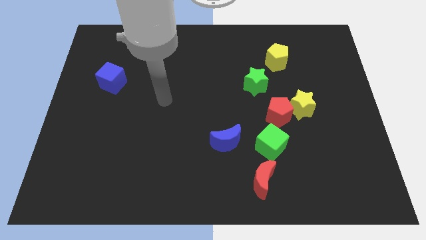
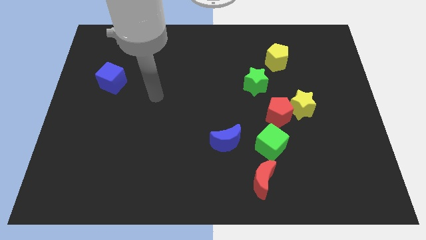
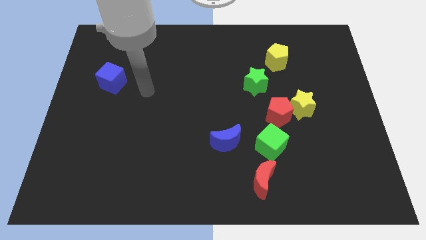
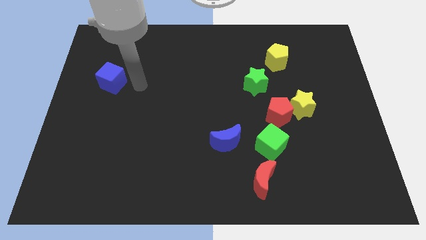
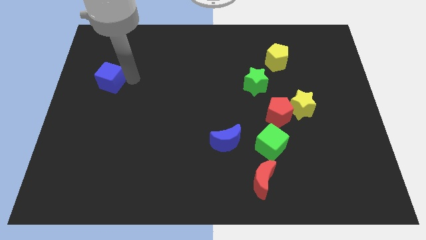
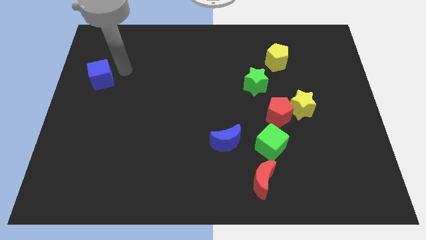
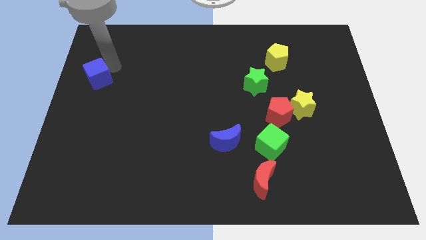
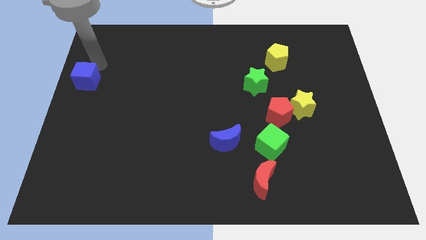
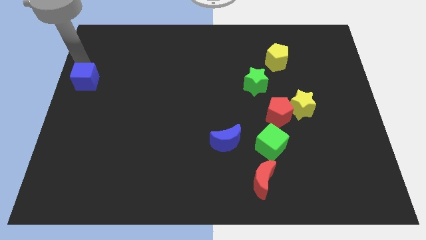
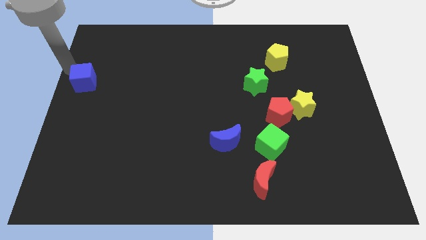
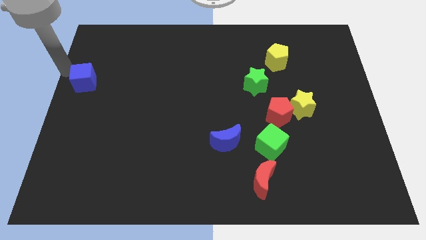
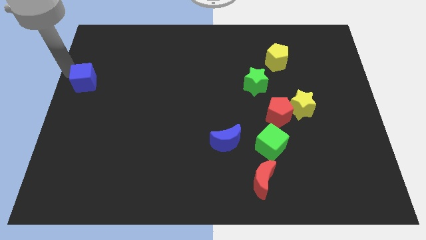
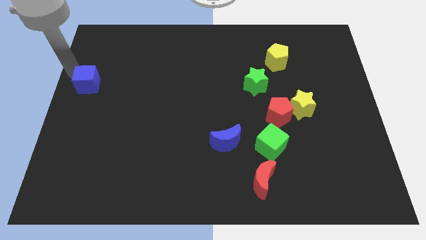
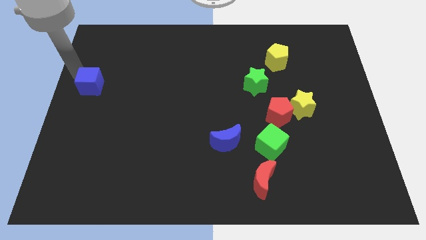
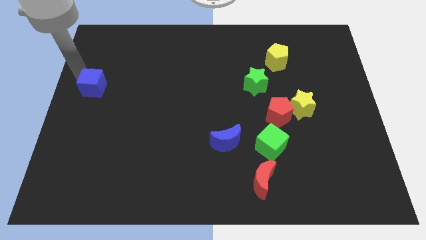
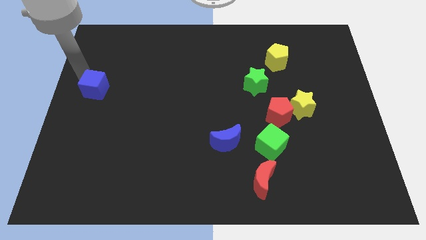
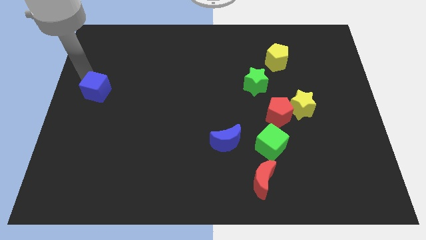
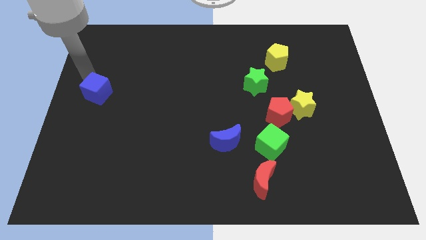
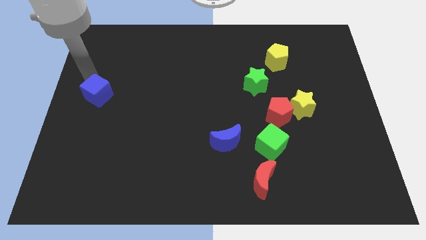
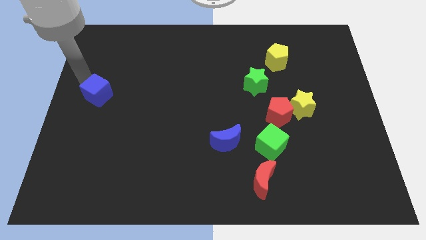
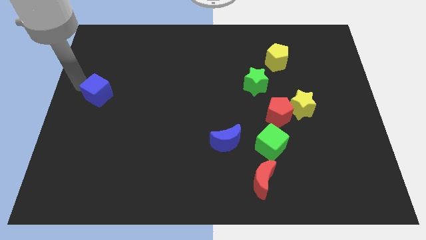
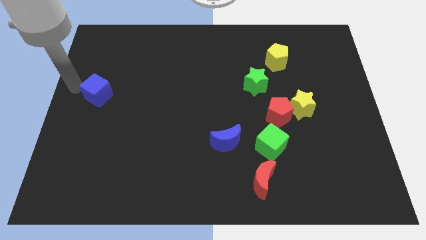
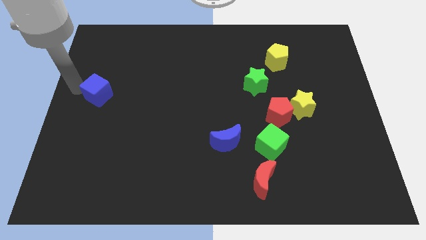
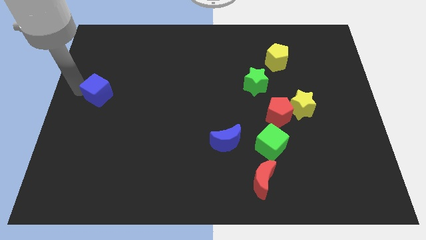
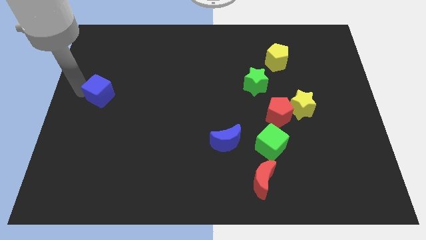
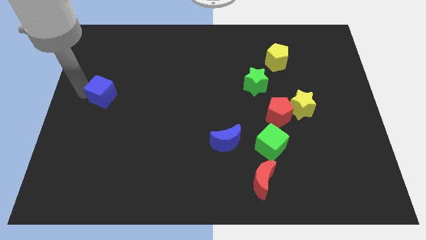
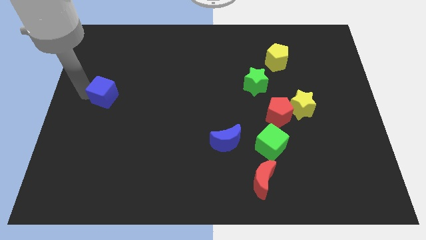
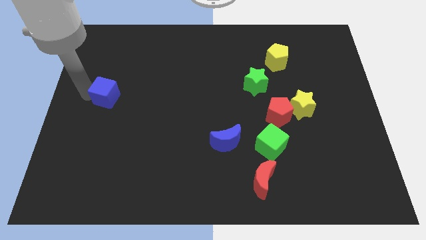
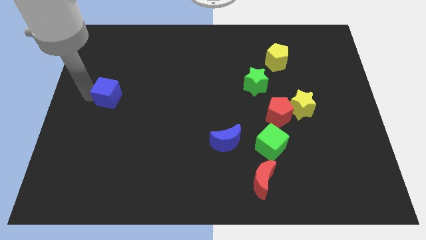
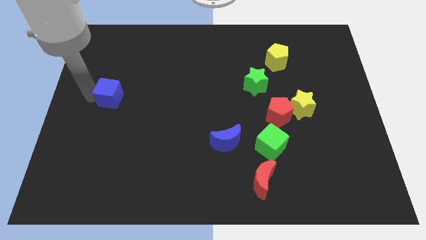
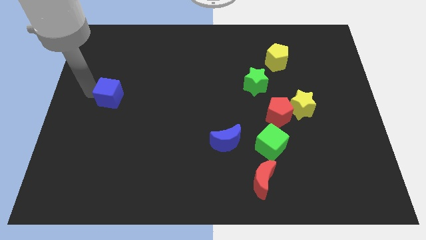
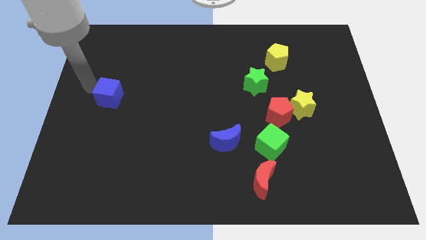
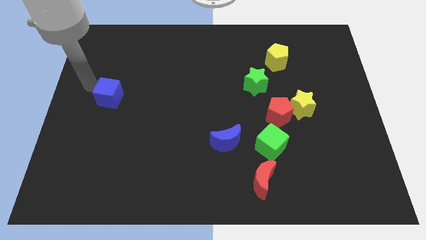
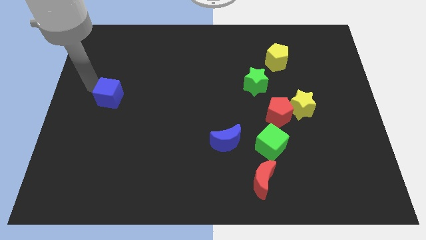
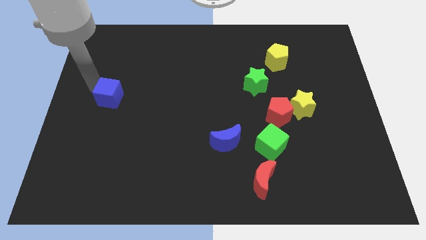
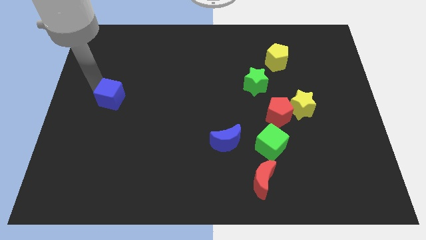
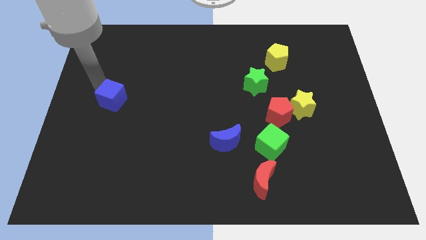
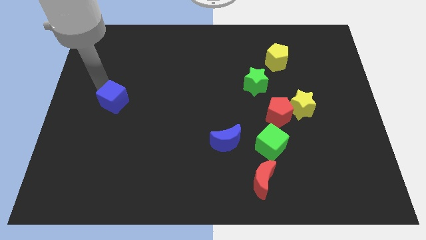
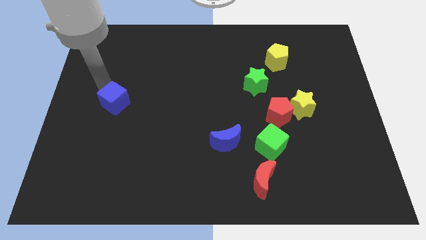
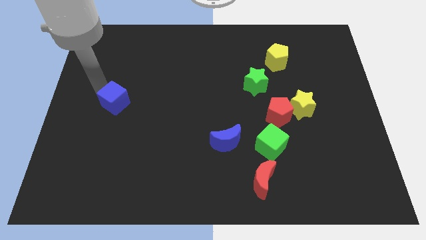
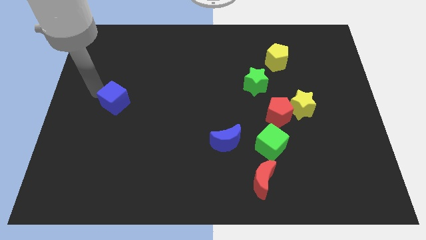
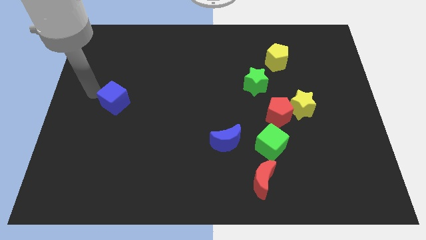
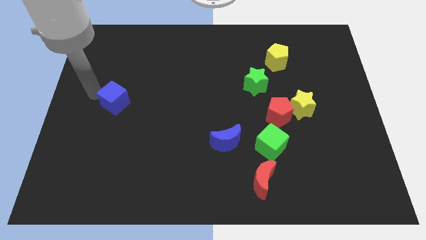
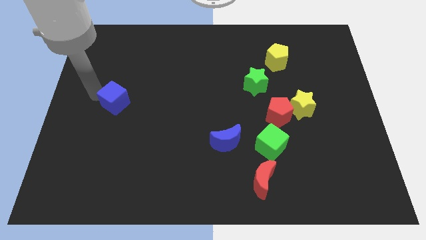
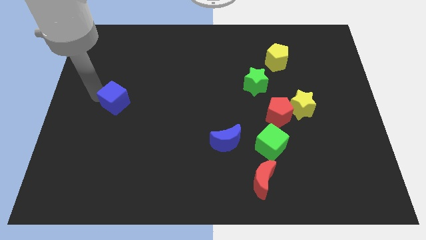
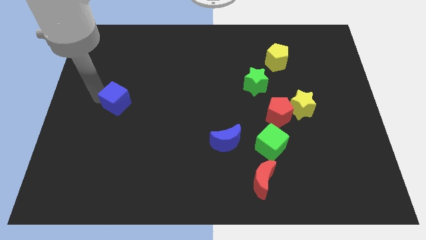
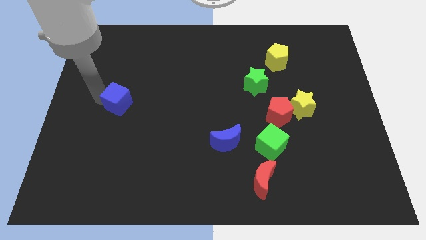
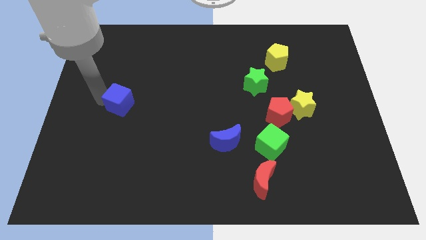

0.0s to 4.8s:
slightly push the blue cube diagonally downwards and right

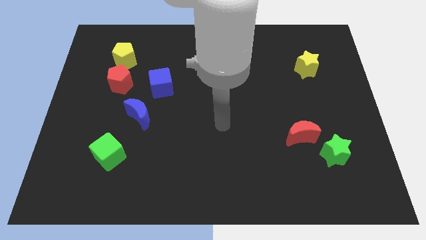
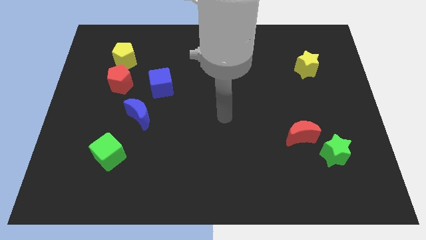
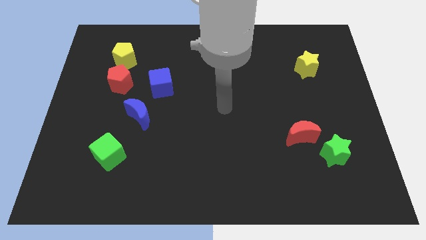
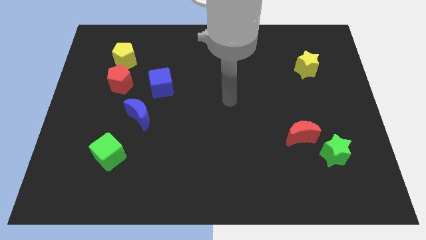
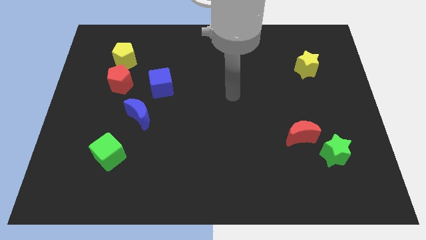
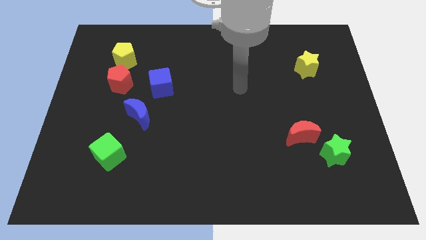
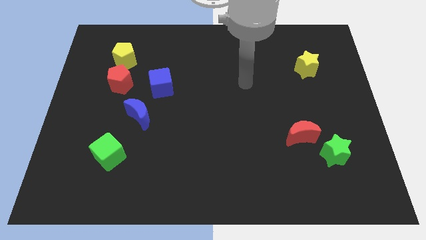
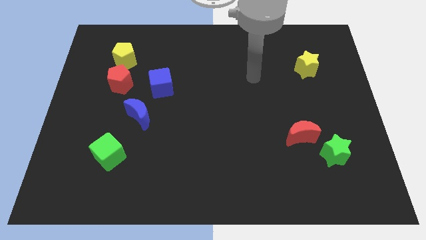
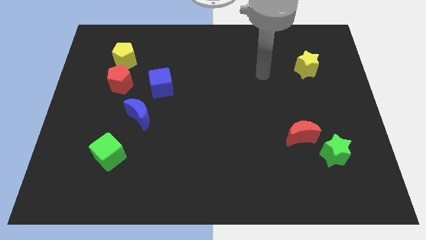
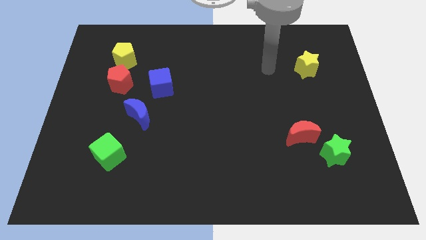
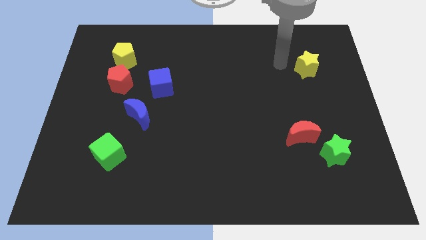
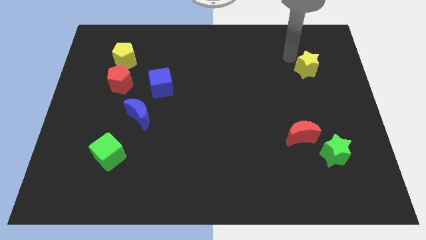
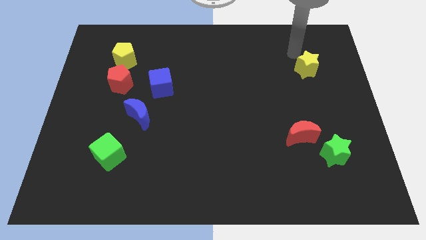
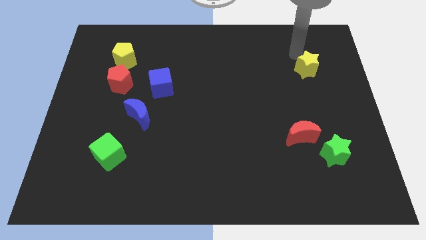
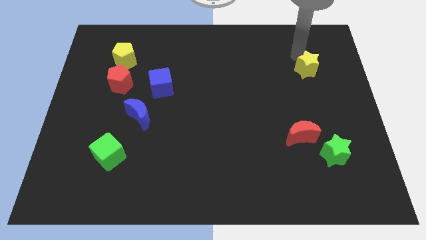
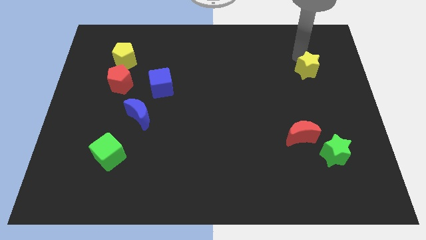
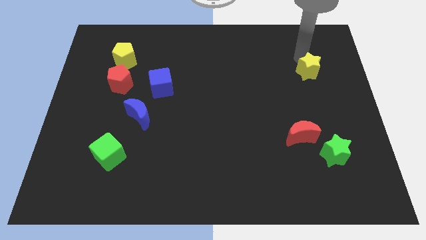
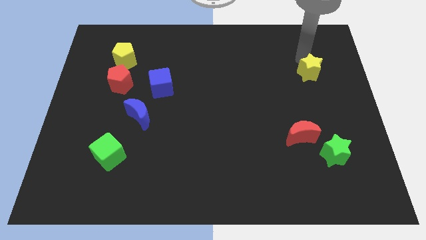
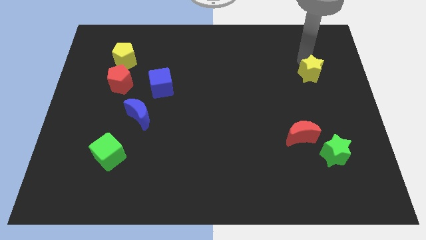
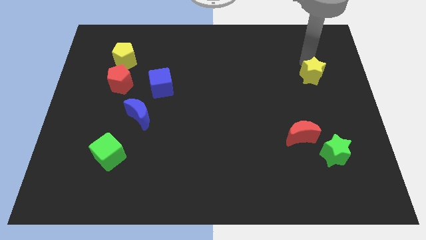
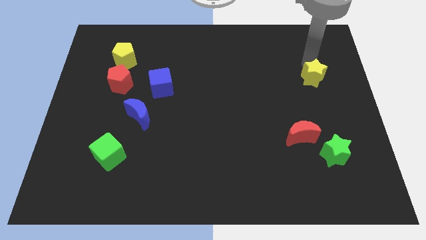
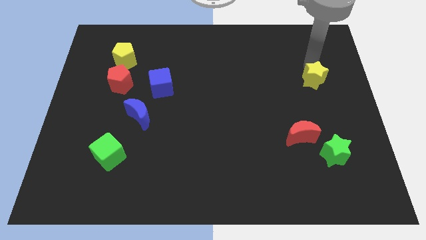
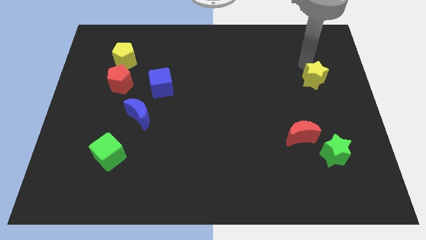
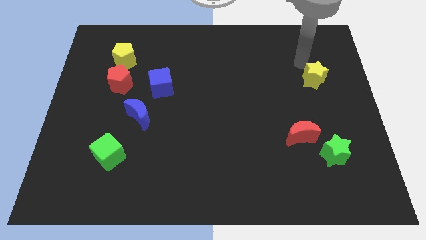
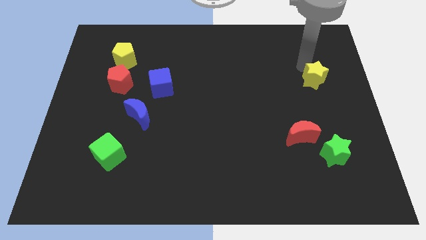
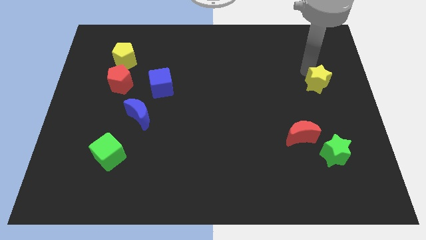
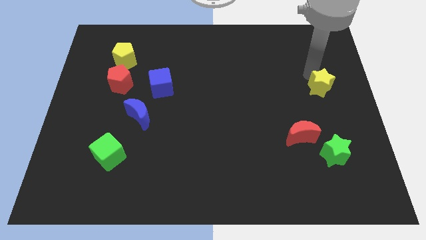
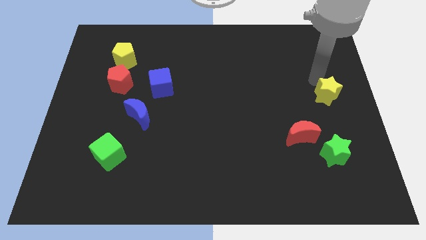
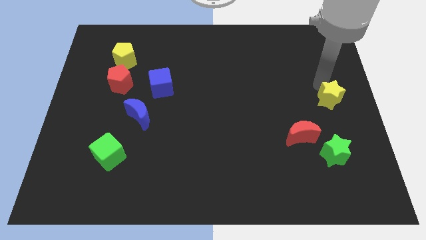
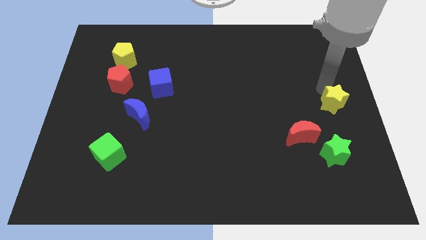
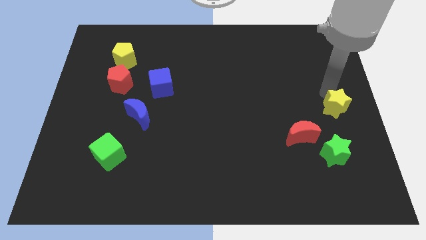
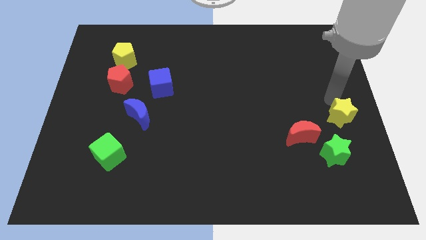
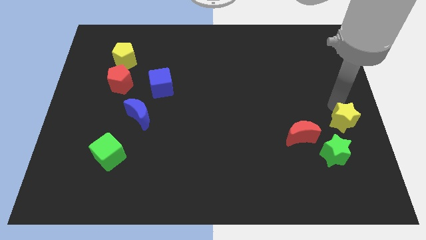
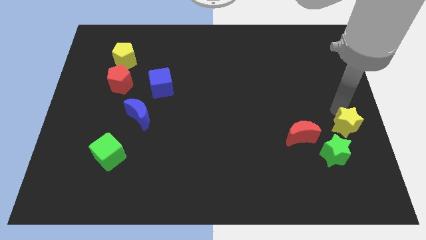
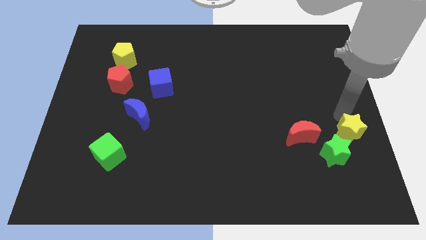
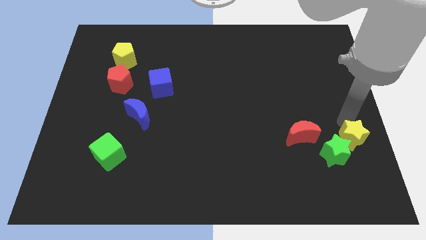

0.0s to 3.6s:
push the yellow star down
